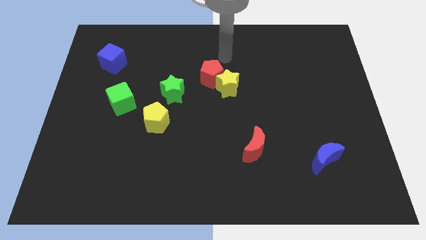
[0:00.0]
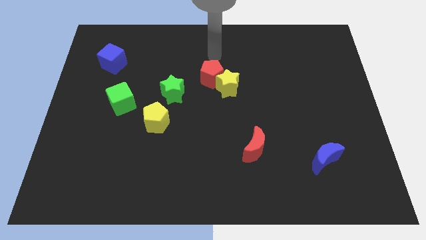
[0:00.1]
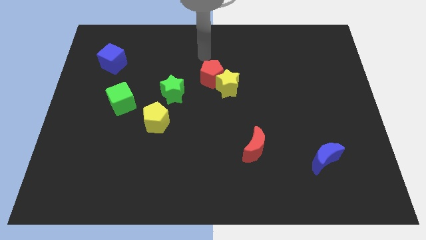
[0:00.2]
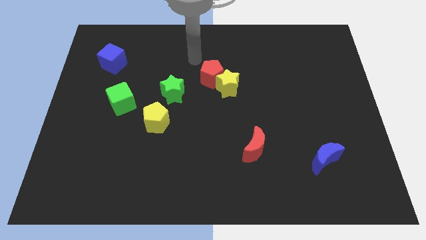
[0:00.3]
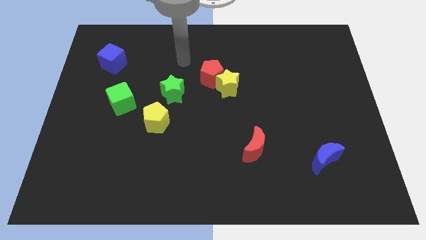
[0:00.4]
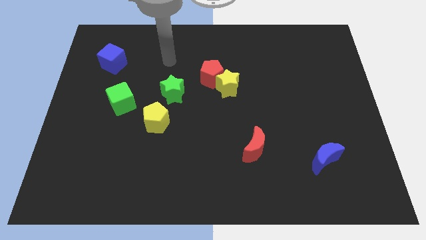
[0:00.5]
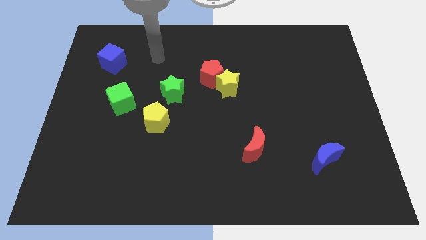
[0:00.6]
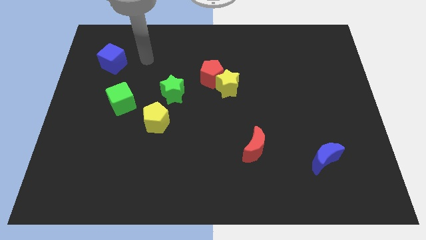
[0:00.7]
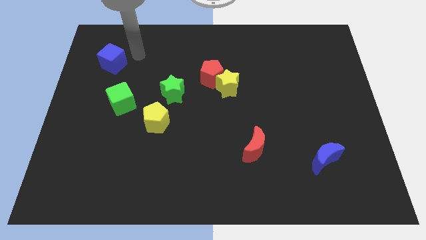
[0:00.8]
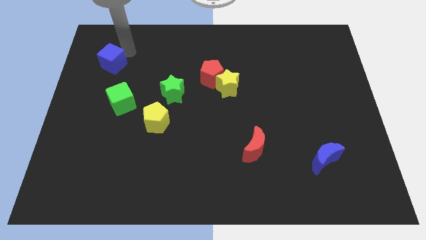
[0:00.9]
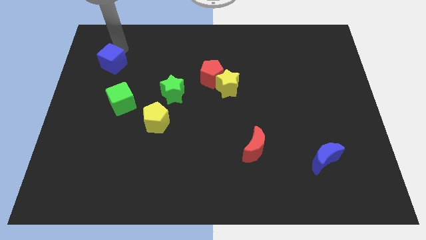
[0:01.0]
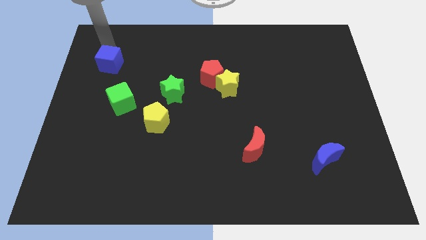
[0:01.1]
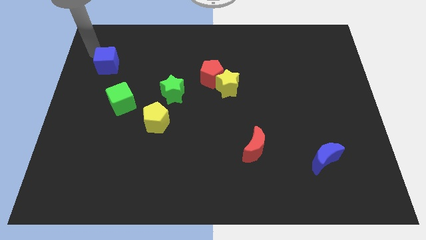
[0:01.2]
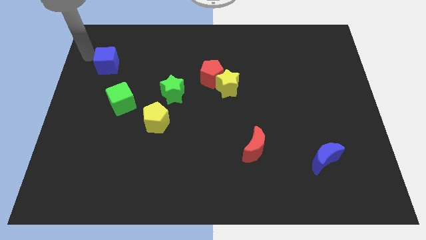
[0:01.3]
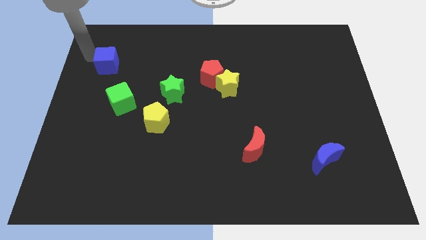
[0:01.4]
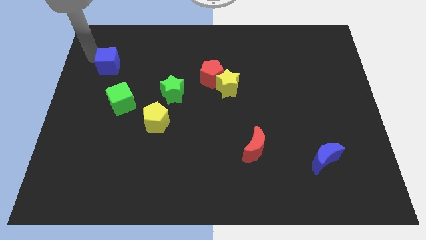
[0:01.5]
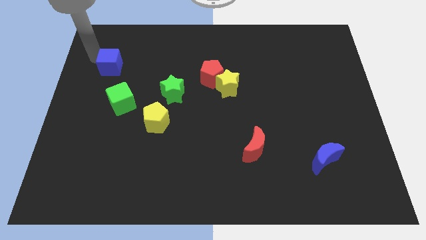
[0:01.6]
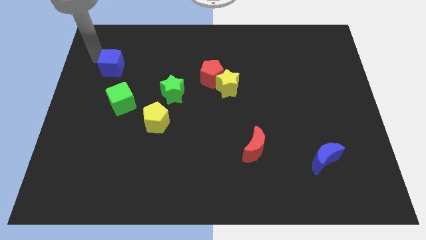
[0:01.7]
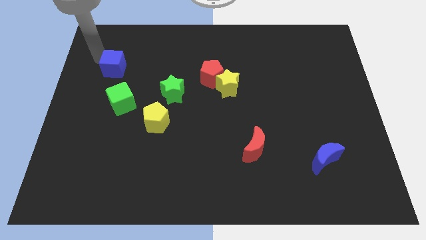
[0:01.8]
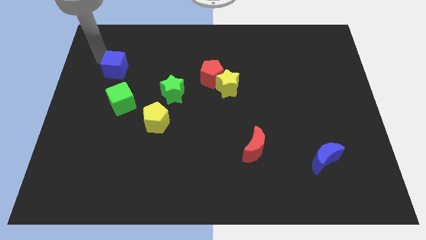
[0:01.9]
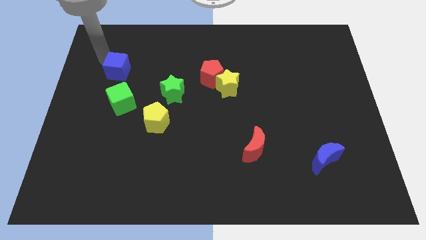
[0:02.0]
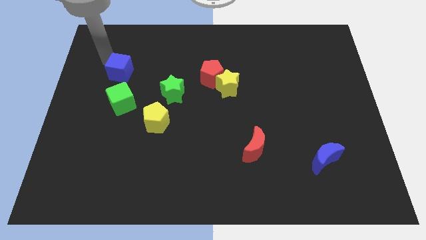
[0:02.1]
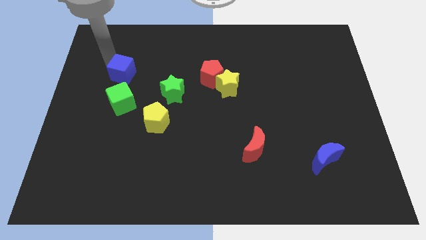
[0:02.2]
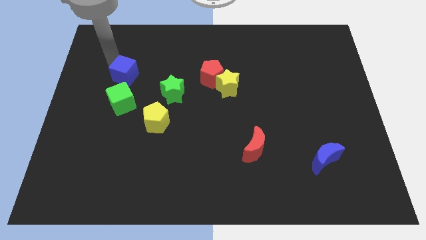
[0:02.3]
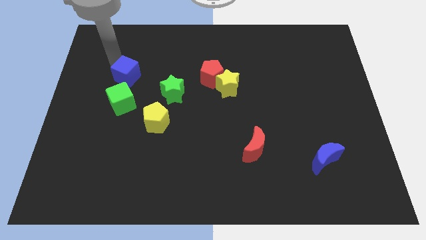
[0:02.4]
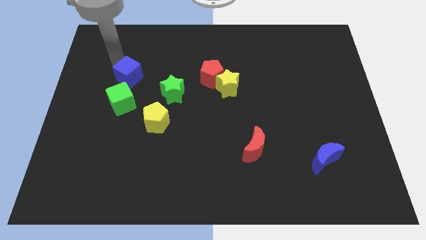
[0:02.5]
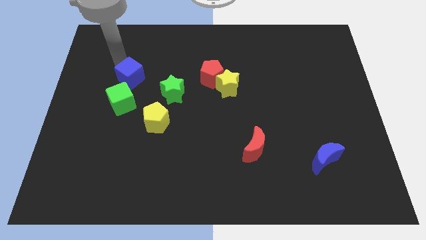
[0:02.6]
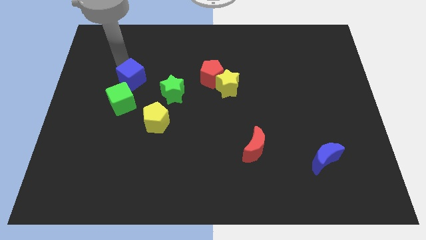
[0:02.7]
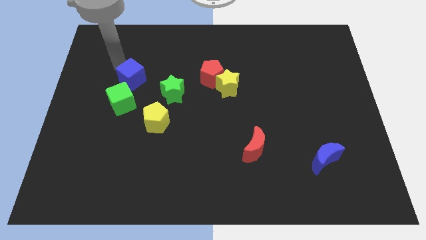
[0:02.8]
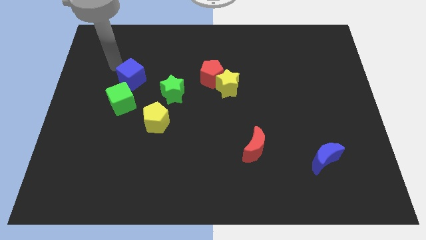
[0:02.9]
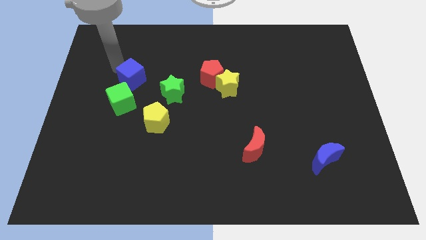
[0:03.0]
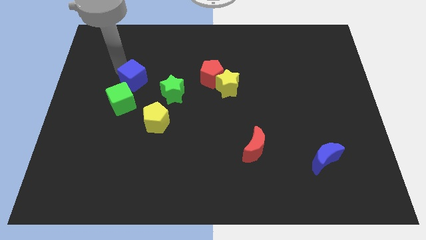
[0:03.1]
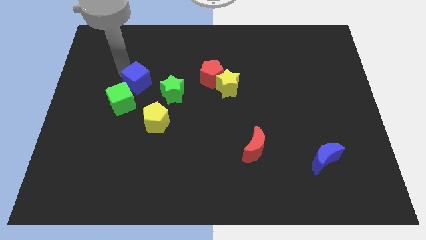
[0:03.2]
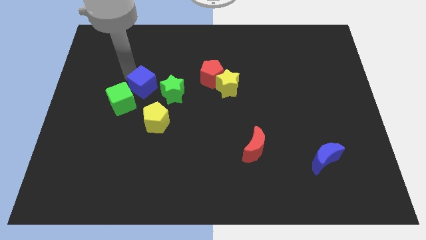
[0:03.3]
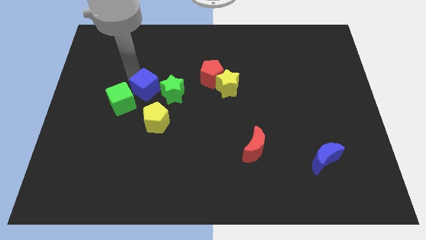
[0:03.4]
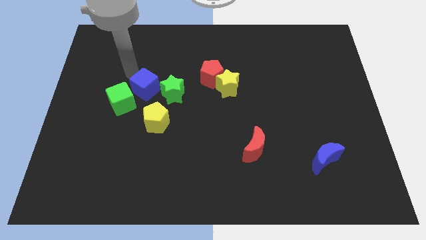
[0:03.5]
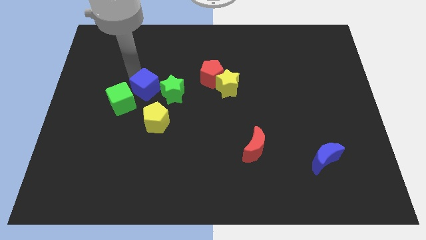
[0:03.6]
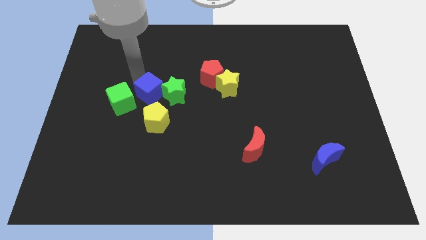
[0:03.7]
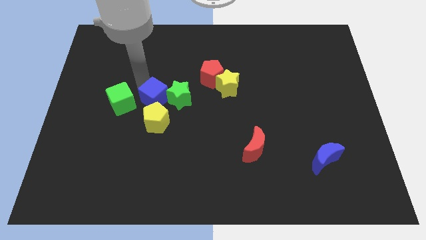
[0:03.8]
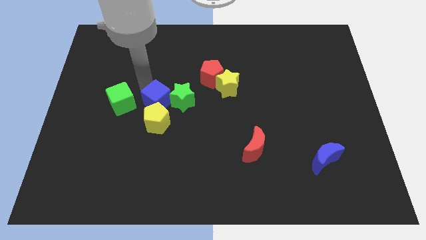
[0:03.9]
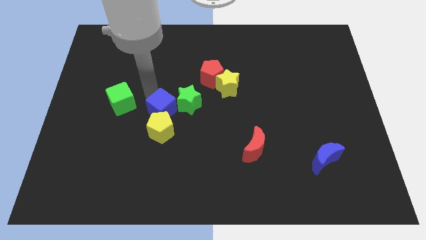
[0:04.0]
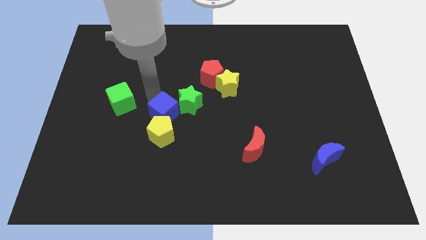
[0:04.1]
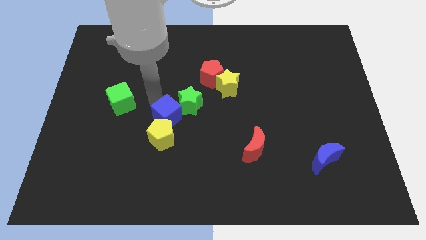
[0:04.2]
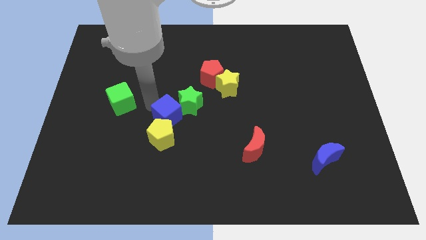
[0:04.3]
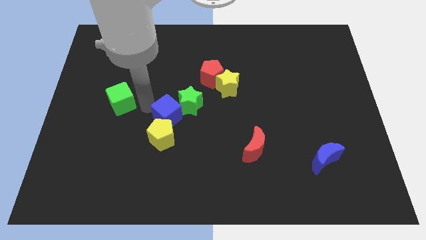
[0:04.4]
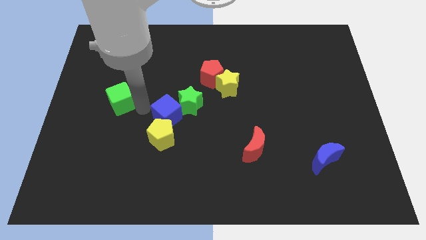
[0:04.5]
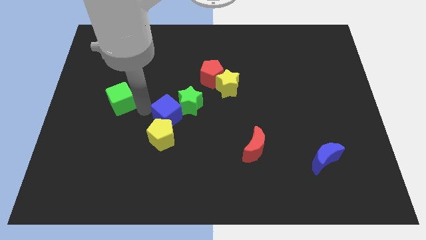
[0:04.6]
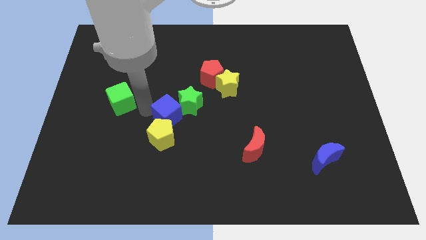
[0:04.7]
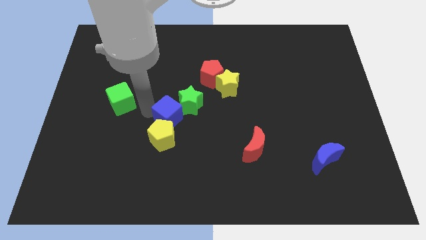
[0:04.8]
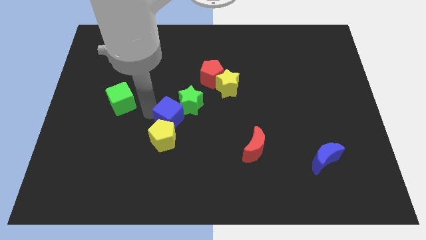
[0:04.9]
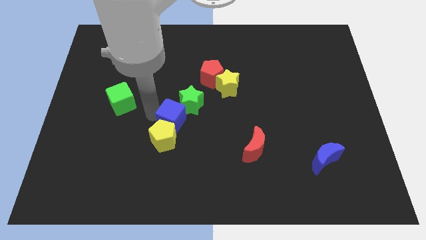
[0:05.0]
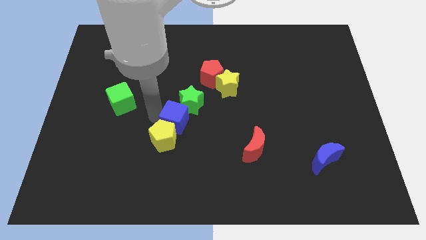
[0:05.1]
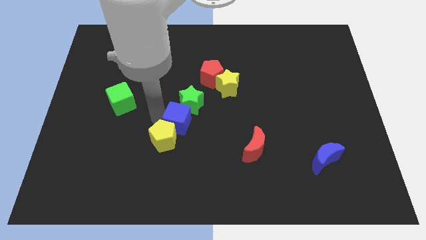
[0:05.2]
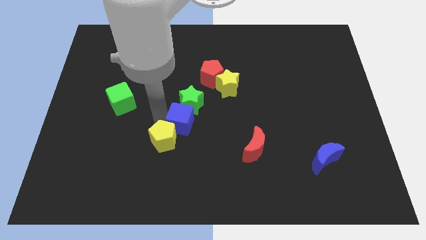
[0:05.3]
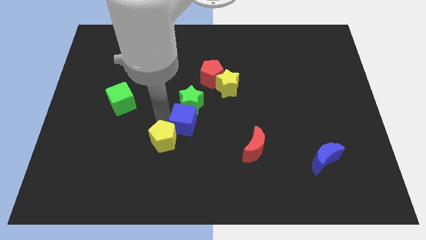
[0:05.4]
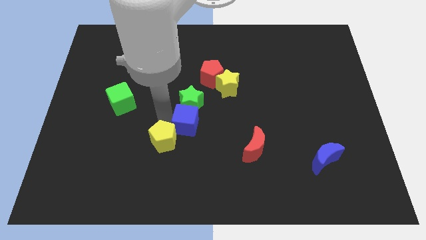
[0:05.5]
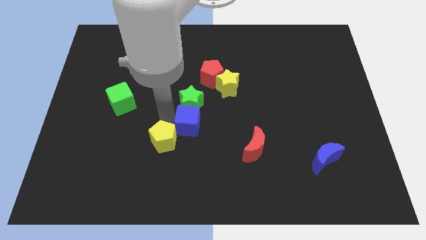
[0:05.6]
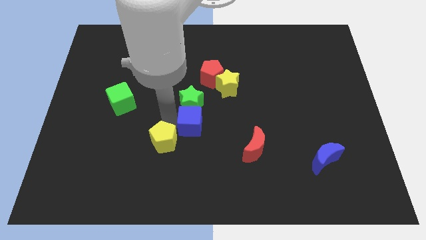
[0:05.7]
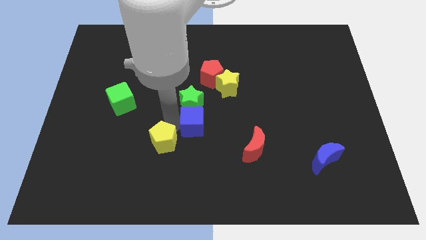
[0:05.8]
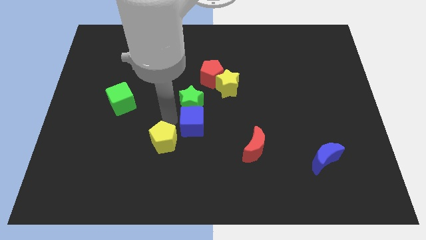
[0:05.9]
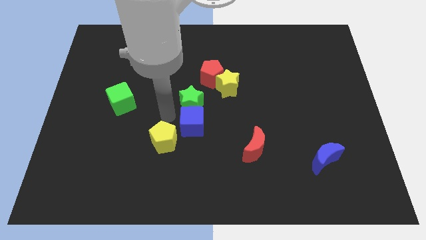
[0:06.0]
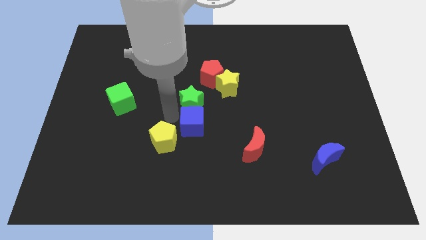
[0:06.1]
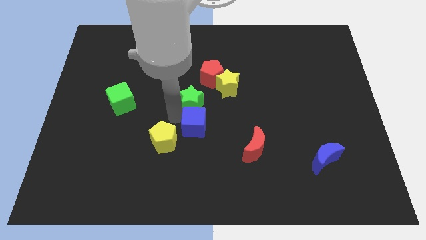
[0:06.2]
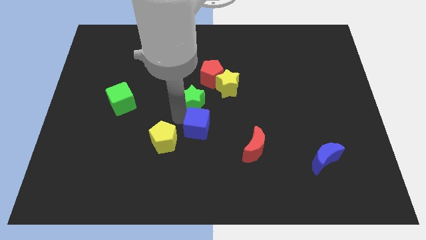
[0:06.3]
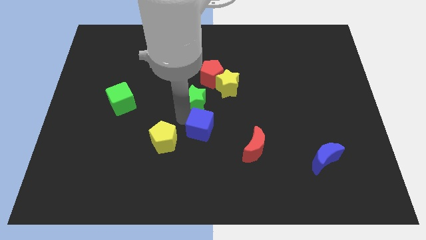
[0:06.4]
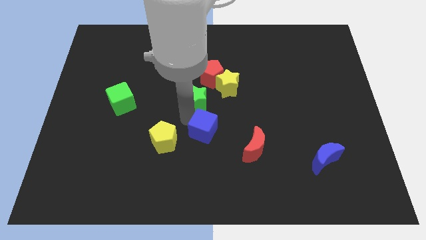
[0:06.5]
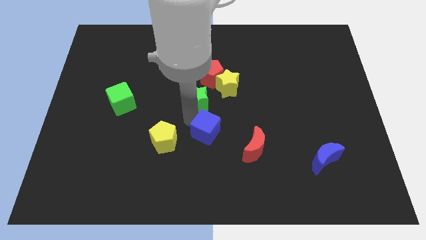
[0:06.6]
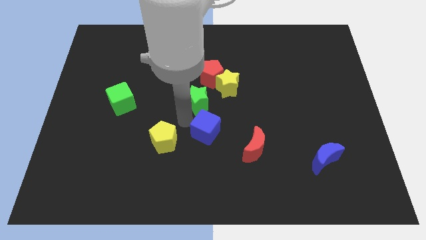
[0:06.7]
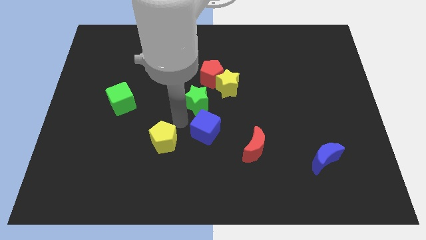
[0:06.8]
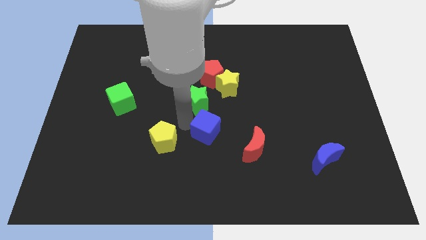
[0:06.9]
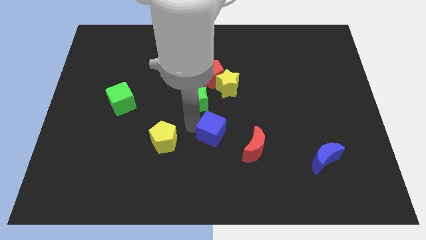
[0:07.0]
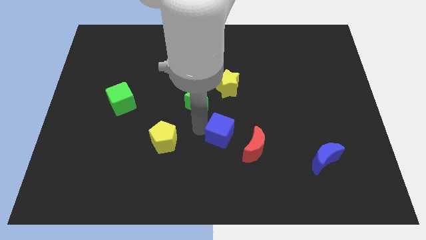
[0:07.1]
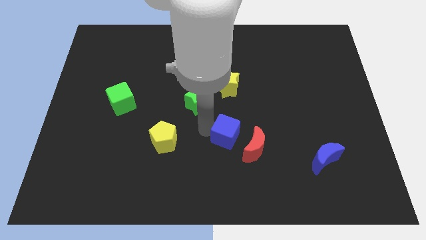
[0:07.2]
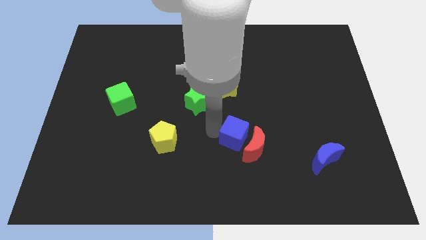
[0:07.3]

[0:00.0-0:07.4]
slide the blue cube to the red moon
